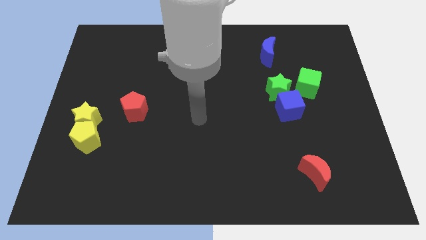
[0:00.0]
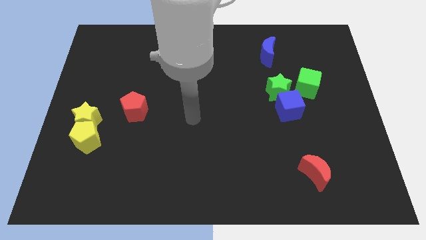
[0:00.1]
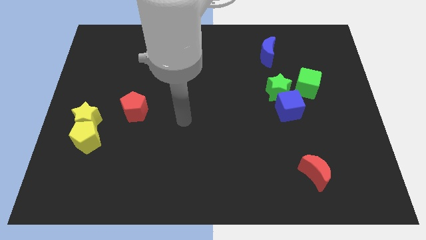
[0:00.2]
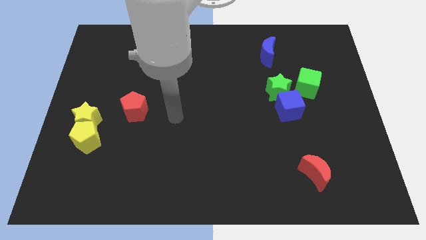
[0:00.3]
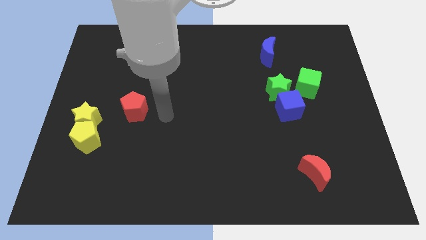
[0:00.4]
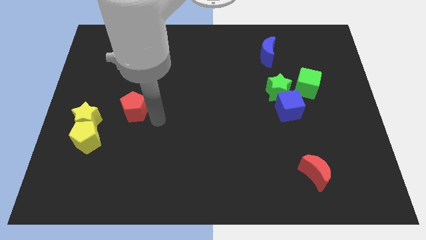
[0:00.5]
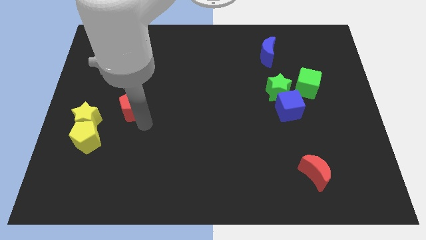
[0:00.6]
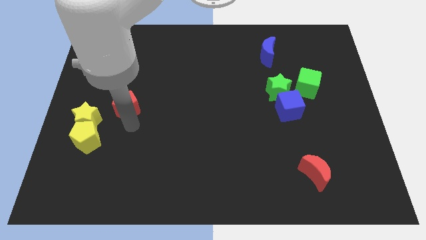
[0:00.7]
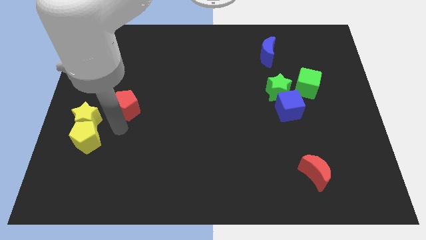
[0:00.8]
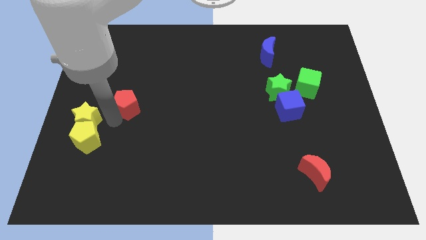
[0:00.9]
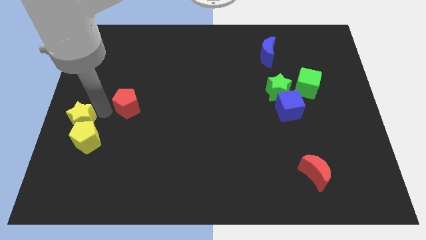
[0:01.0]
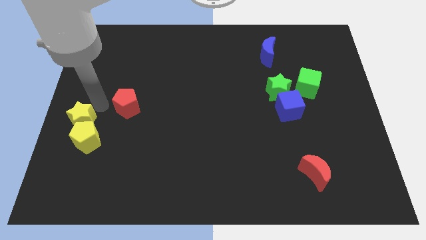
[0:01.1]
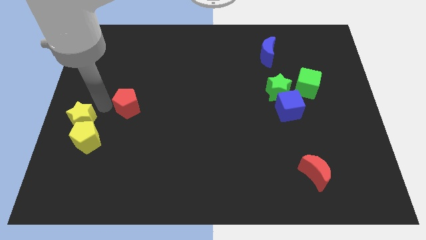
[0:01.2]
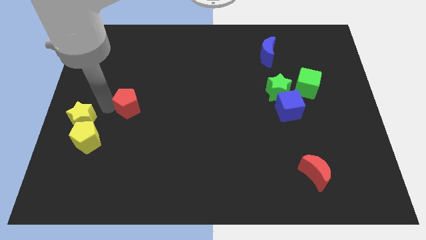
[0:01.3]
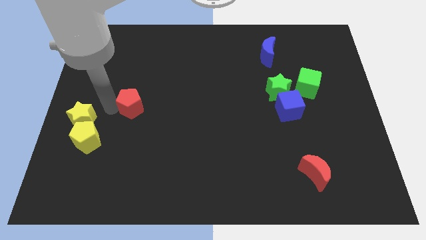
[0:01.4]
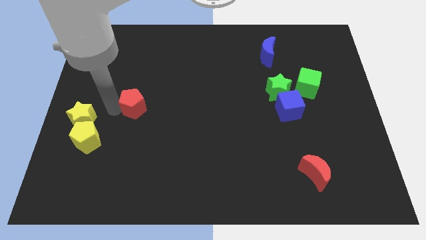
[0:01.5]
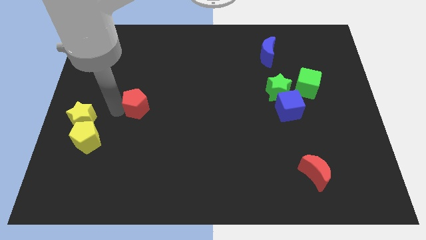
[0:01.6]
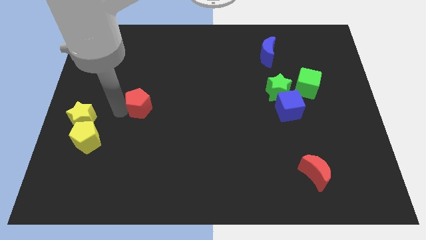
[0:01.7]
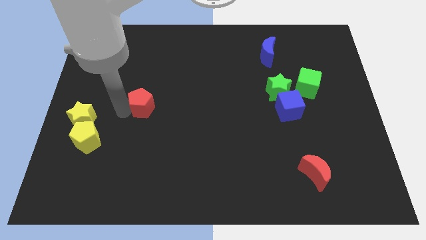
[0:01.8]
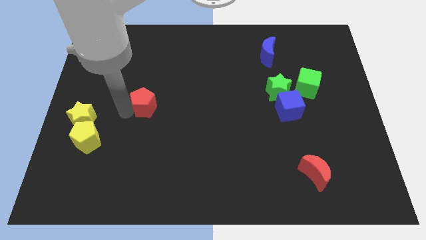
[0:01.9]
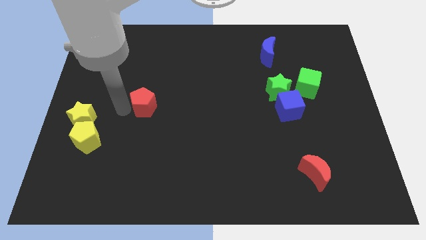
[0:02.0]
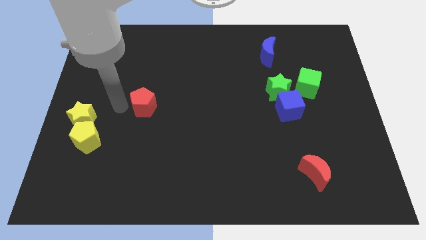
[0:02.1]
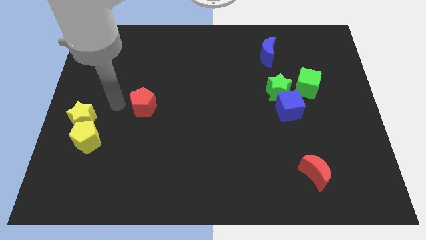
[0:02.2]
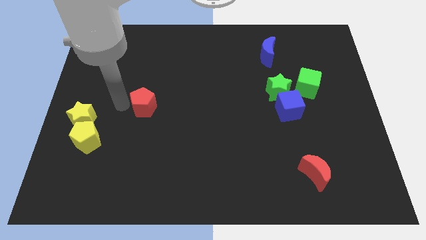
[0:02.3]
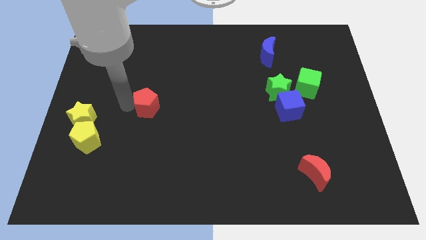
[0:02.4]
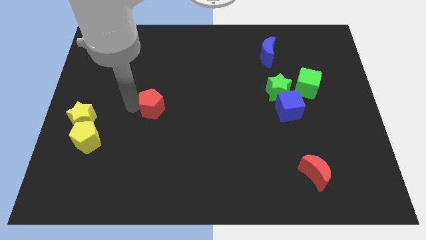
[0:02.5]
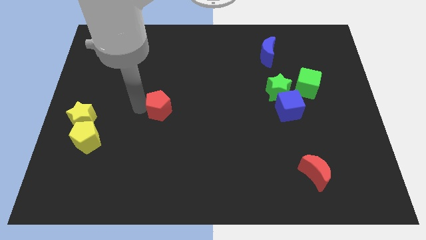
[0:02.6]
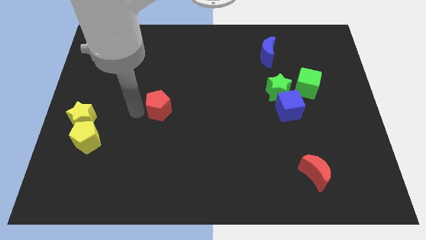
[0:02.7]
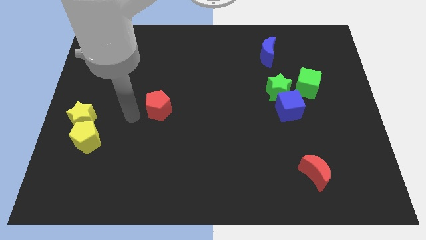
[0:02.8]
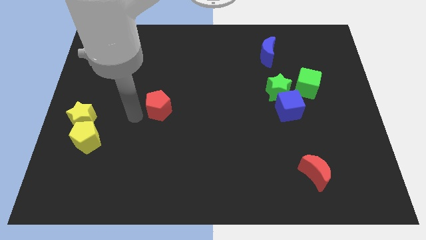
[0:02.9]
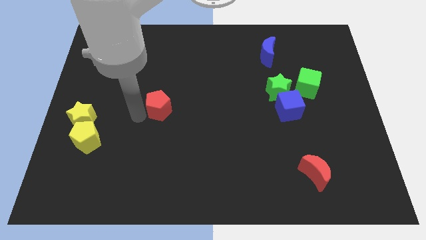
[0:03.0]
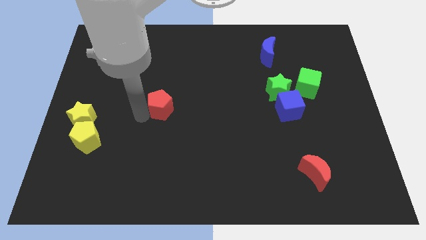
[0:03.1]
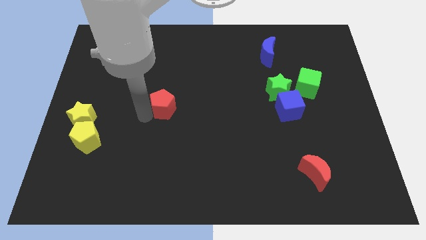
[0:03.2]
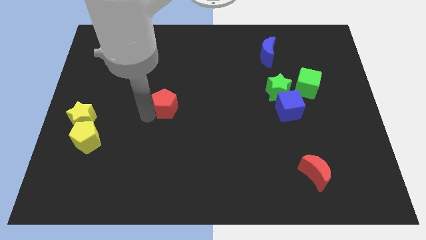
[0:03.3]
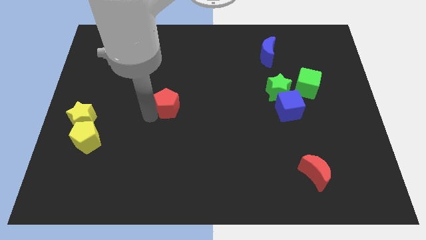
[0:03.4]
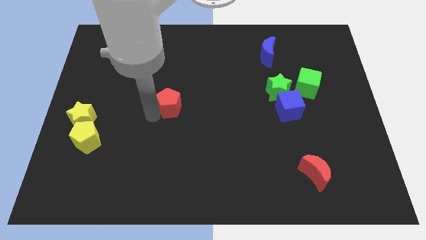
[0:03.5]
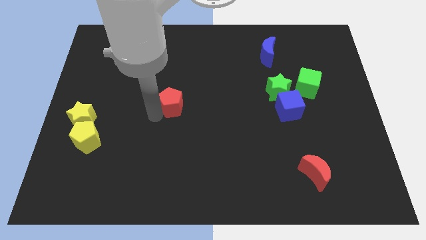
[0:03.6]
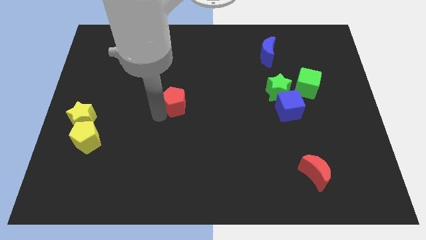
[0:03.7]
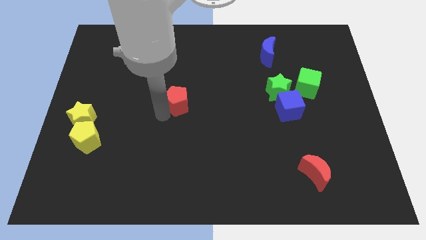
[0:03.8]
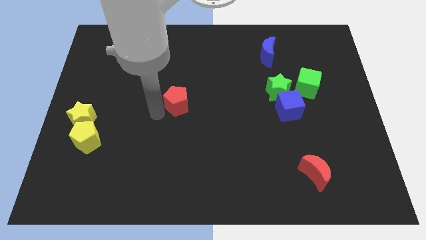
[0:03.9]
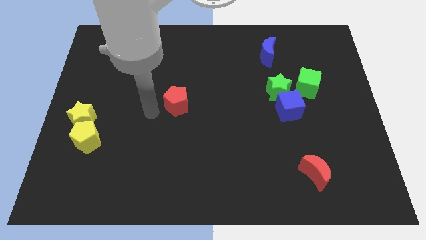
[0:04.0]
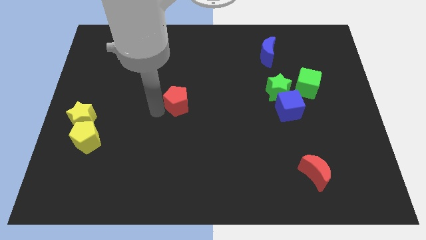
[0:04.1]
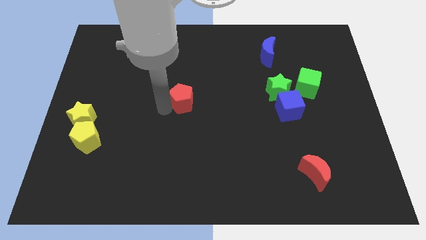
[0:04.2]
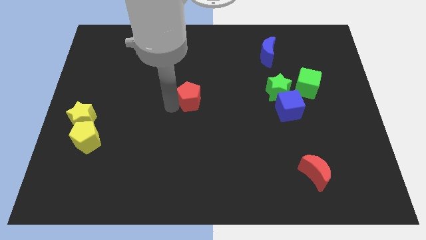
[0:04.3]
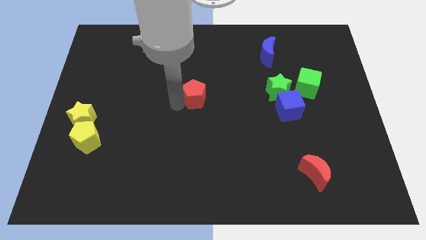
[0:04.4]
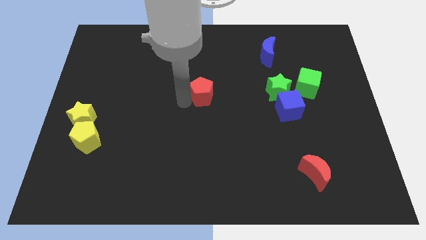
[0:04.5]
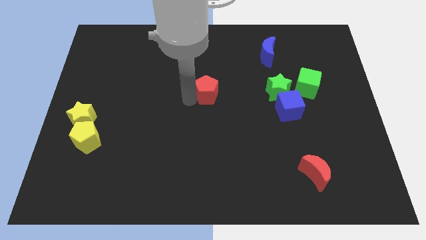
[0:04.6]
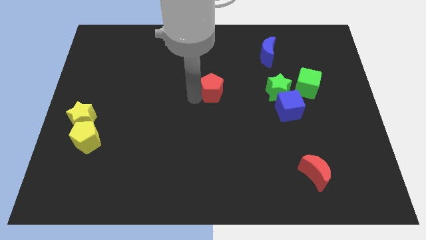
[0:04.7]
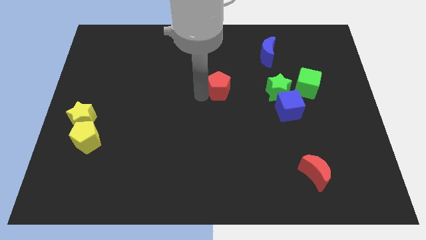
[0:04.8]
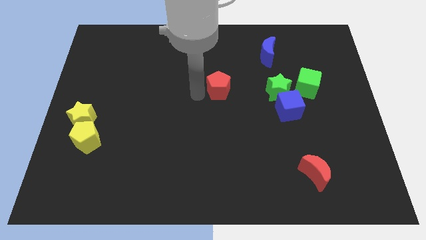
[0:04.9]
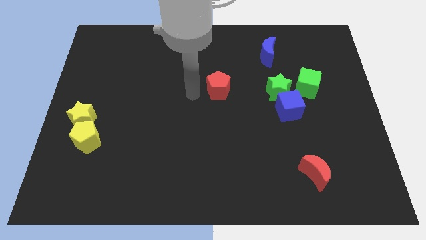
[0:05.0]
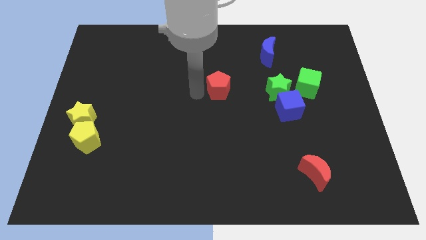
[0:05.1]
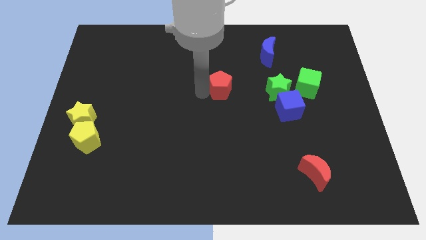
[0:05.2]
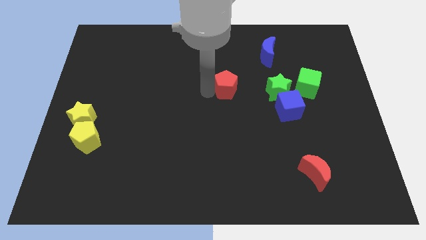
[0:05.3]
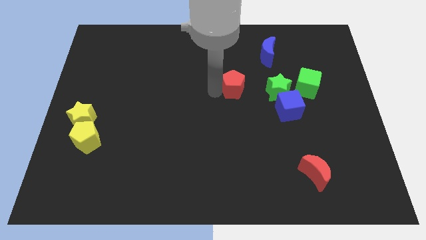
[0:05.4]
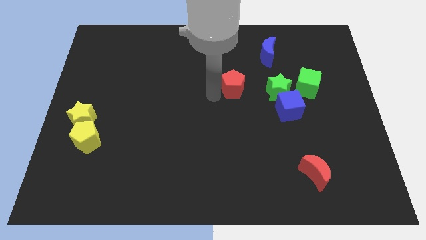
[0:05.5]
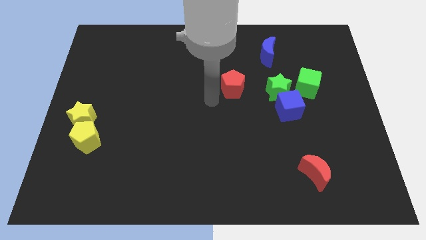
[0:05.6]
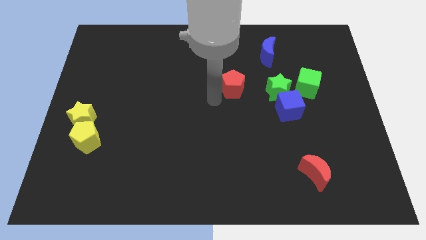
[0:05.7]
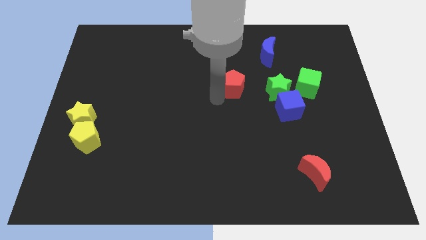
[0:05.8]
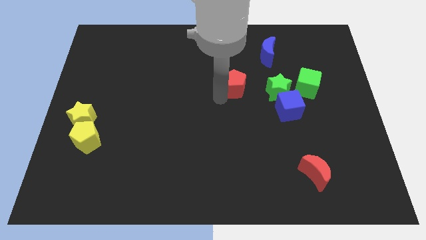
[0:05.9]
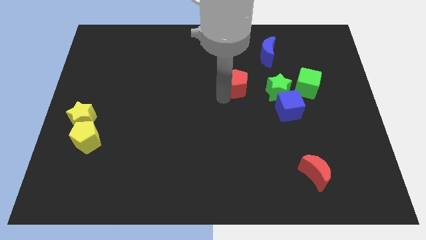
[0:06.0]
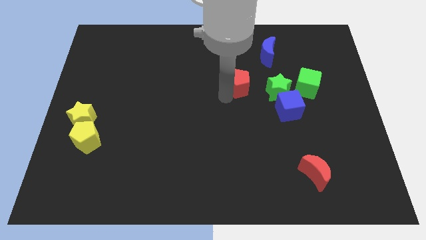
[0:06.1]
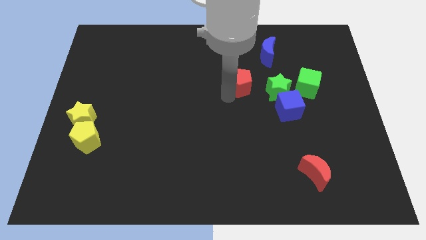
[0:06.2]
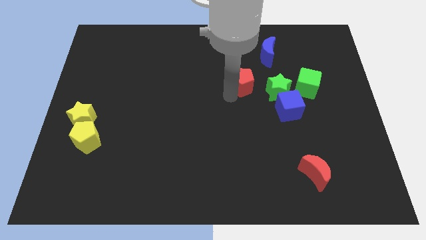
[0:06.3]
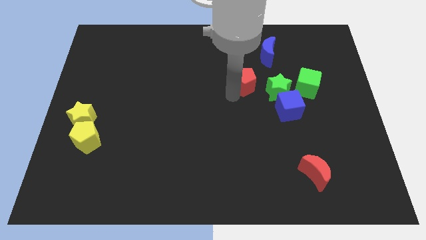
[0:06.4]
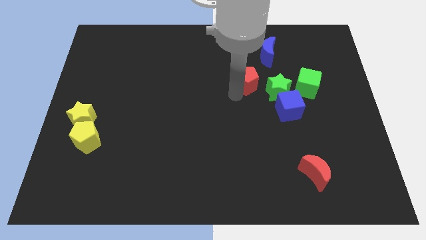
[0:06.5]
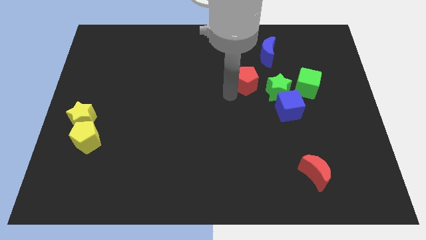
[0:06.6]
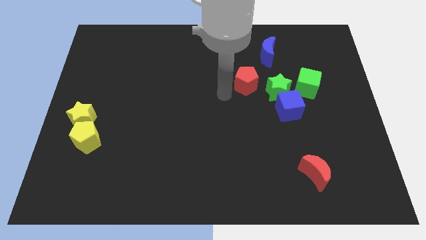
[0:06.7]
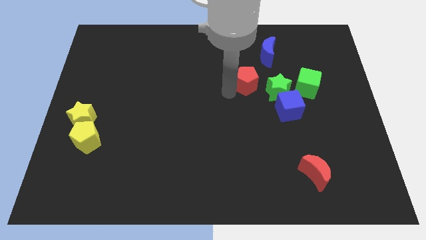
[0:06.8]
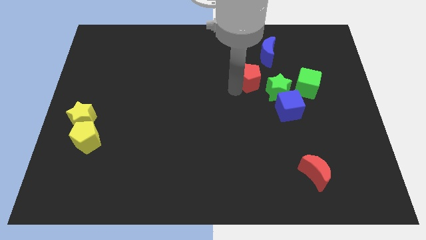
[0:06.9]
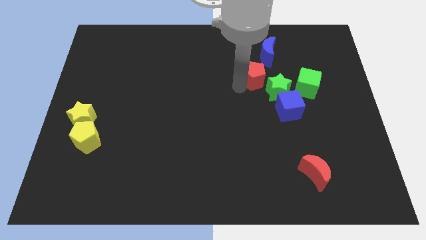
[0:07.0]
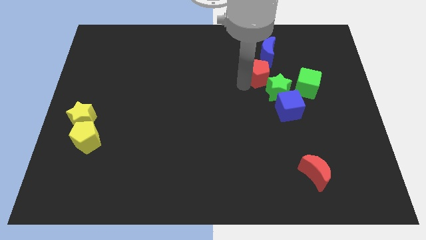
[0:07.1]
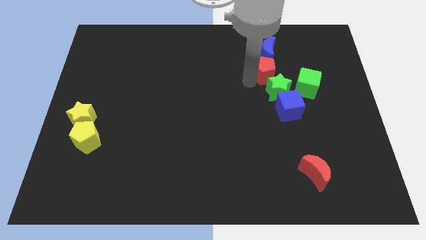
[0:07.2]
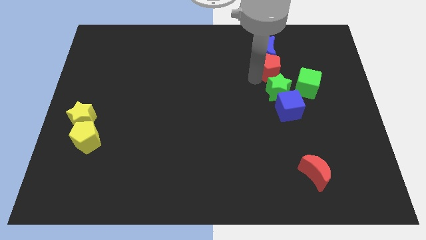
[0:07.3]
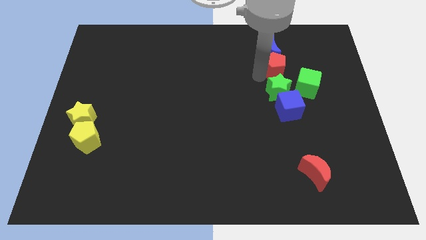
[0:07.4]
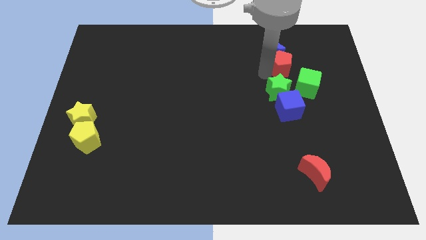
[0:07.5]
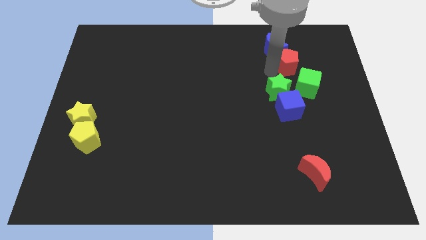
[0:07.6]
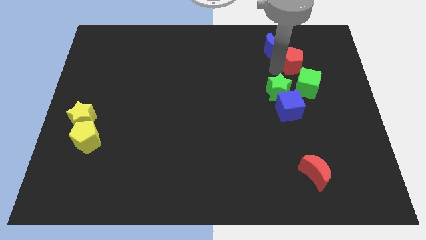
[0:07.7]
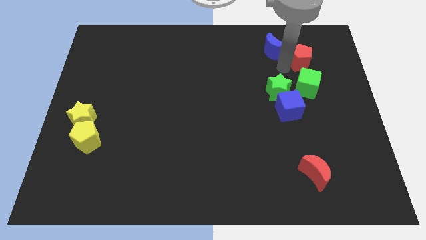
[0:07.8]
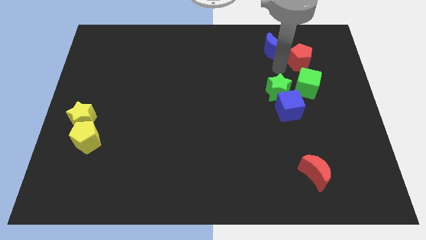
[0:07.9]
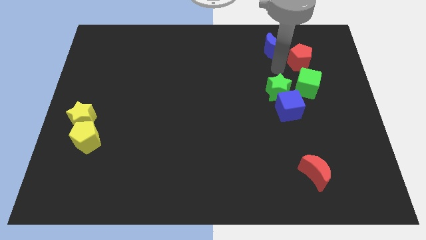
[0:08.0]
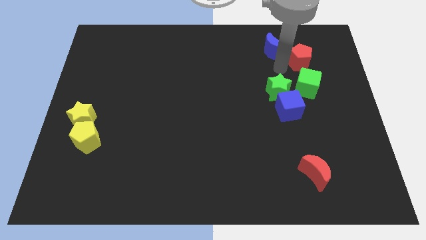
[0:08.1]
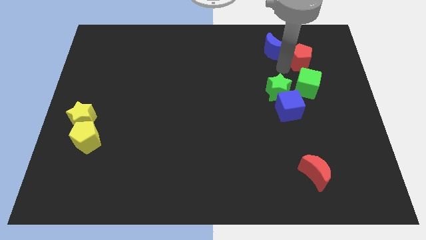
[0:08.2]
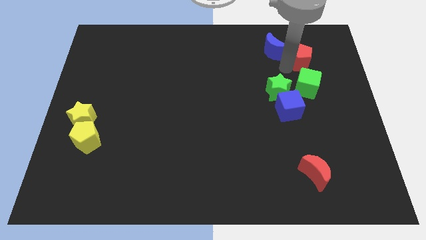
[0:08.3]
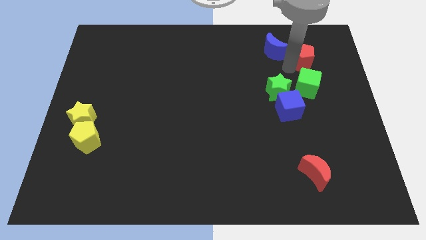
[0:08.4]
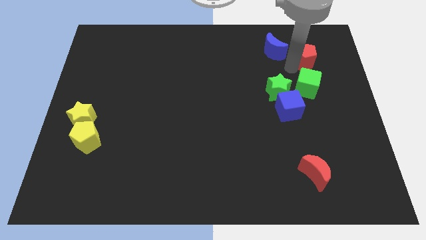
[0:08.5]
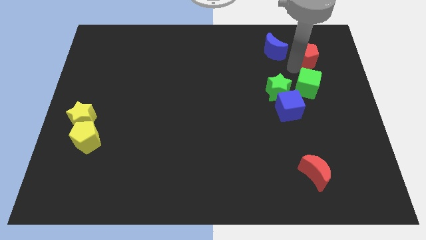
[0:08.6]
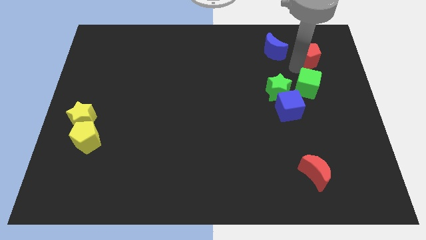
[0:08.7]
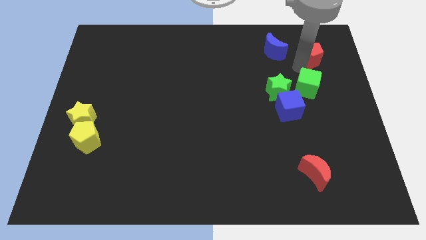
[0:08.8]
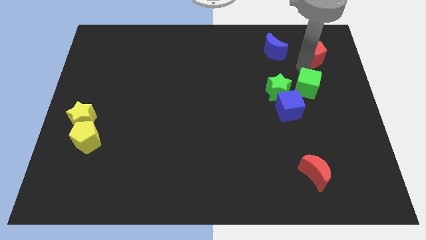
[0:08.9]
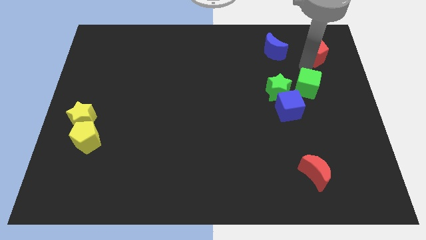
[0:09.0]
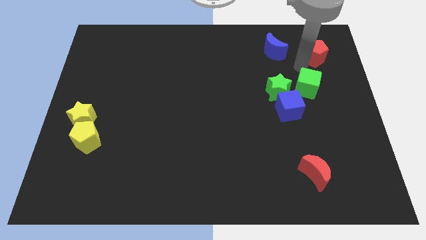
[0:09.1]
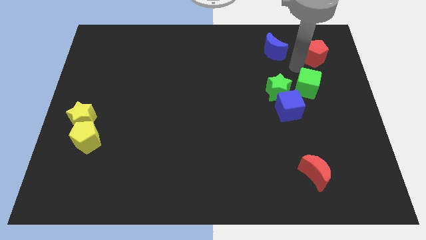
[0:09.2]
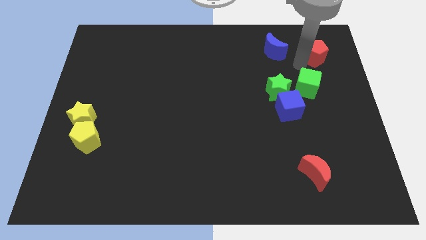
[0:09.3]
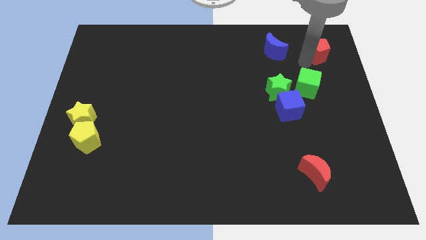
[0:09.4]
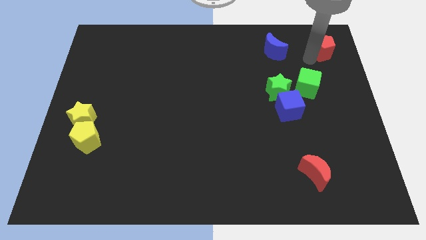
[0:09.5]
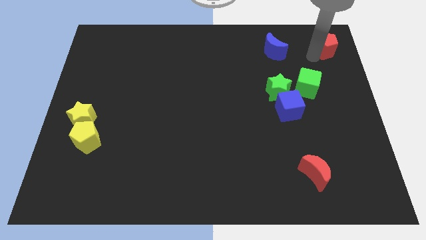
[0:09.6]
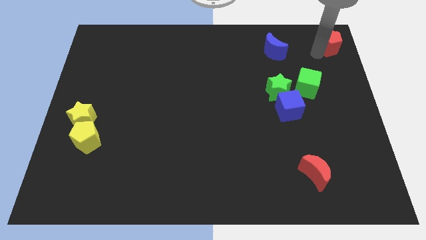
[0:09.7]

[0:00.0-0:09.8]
slide the red pentagon to the top right of the board
